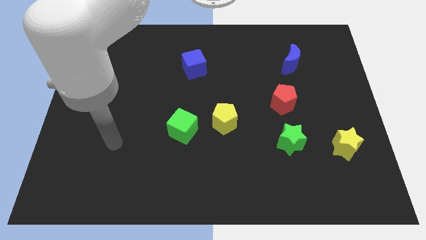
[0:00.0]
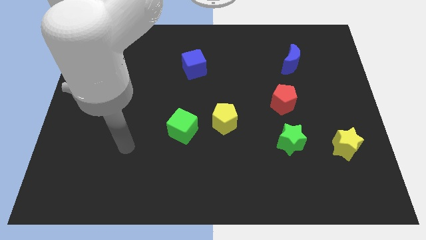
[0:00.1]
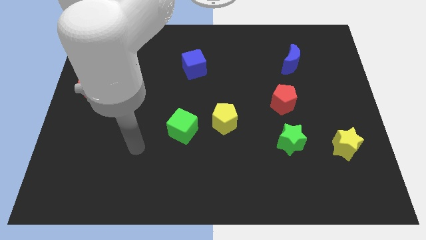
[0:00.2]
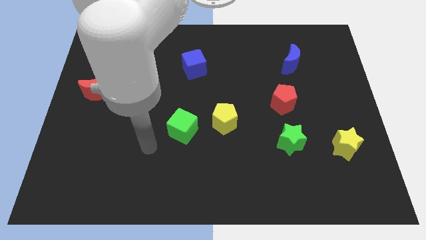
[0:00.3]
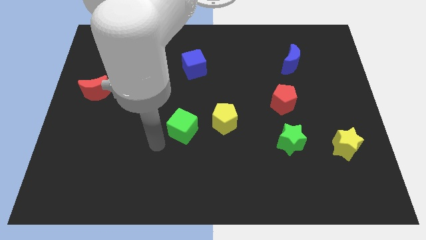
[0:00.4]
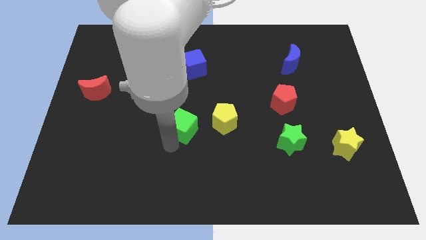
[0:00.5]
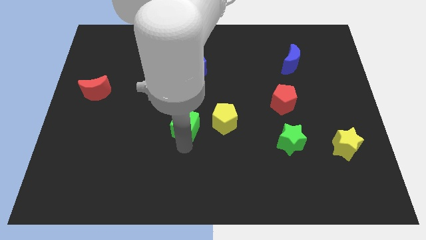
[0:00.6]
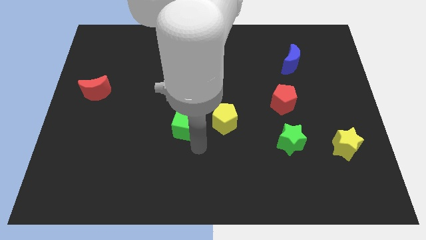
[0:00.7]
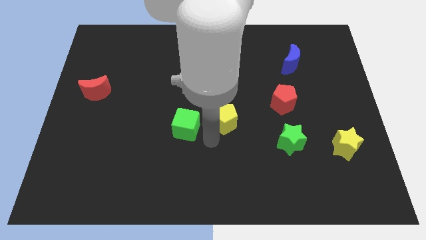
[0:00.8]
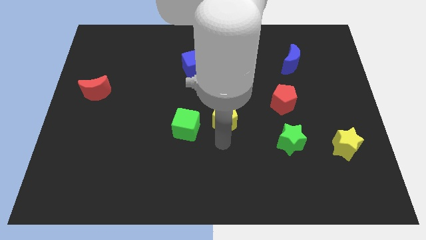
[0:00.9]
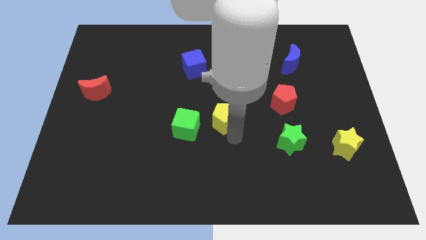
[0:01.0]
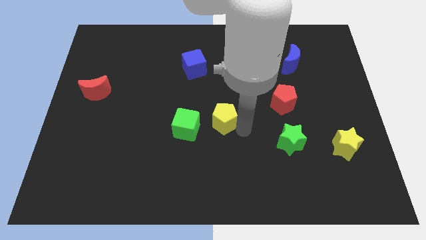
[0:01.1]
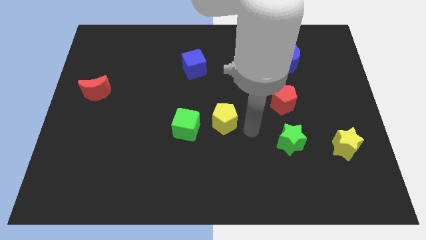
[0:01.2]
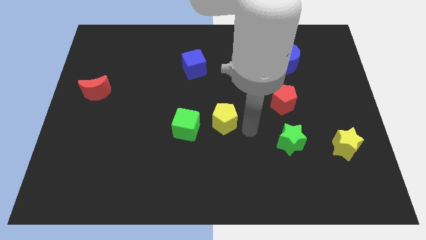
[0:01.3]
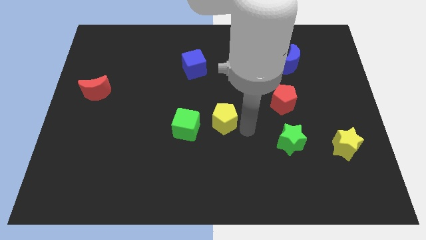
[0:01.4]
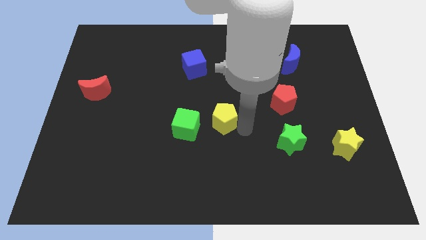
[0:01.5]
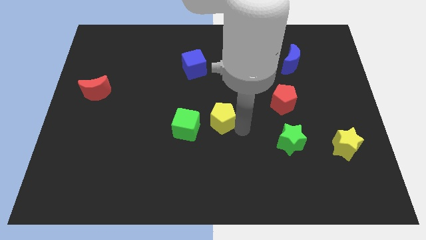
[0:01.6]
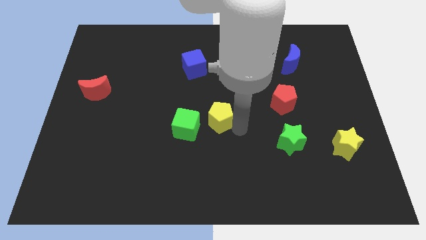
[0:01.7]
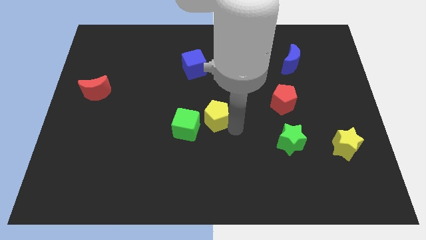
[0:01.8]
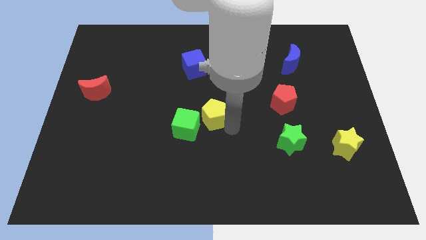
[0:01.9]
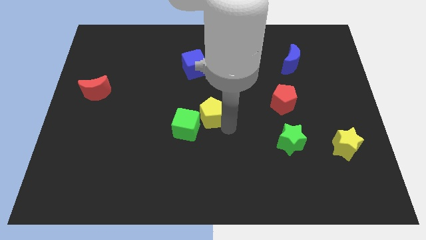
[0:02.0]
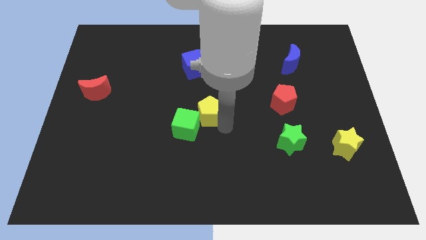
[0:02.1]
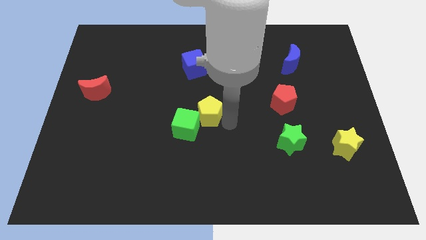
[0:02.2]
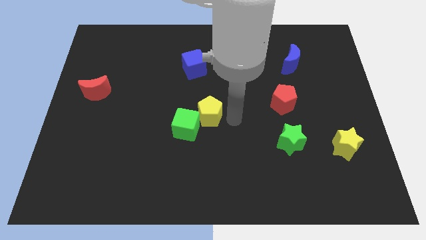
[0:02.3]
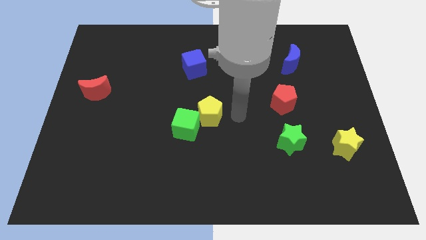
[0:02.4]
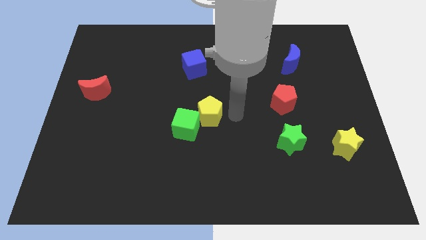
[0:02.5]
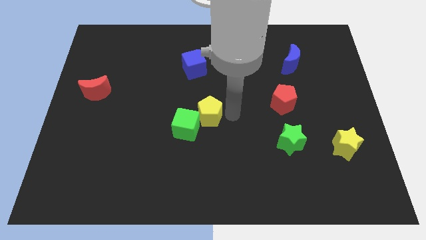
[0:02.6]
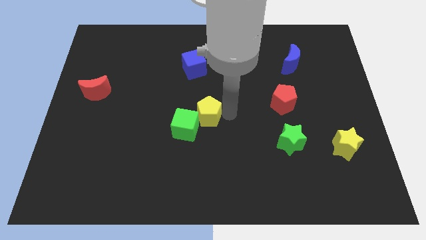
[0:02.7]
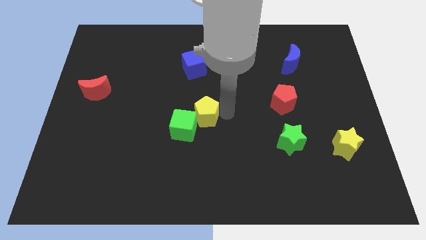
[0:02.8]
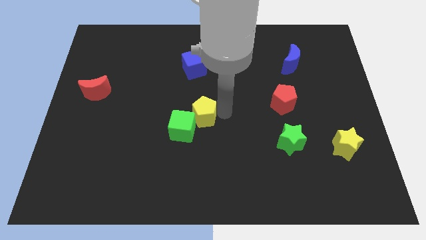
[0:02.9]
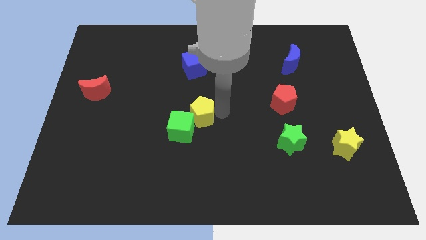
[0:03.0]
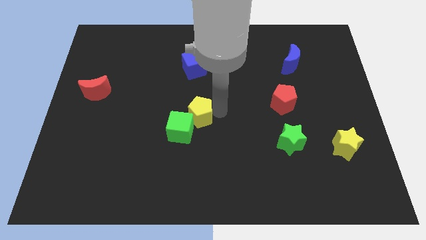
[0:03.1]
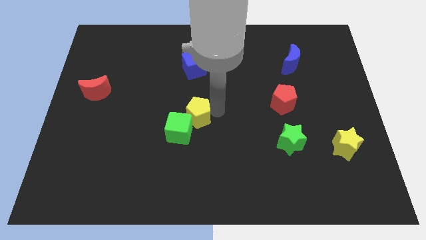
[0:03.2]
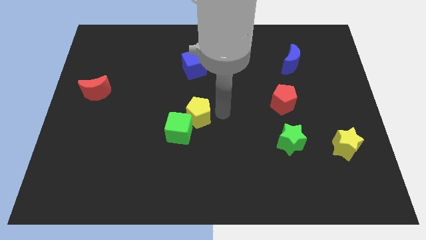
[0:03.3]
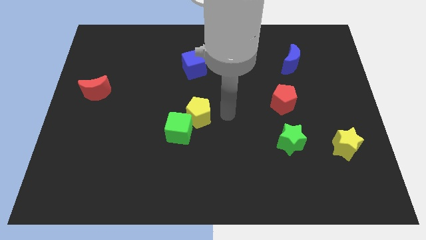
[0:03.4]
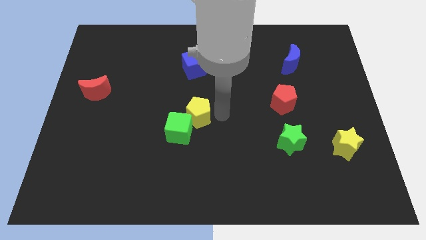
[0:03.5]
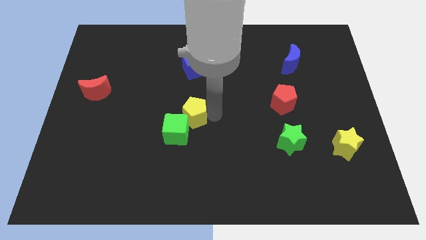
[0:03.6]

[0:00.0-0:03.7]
move the yellow pentagon to the left slightly

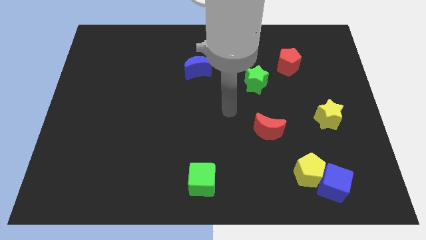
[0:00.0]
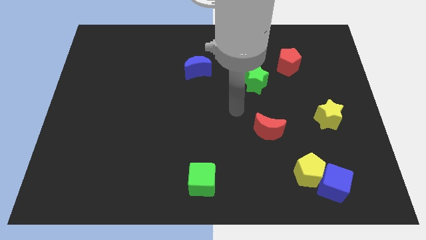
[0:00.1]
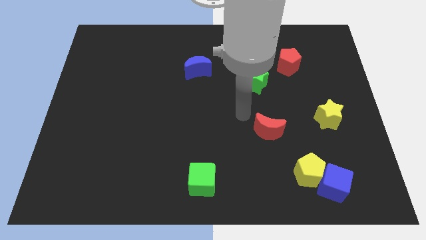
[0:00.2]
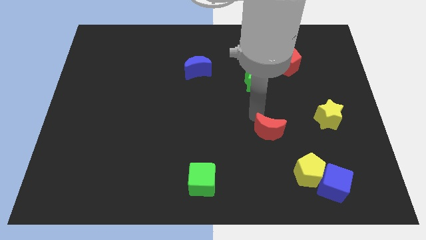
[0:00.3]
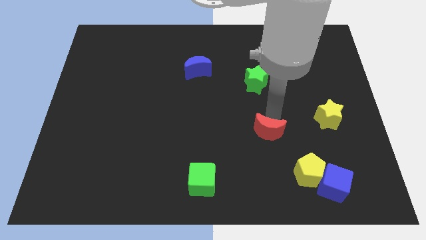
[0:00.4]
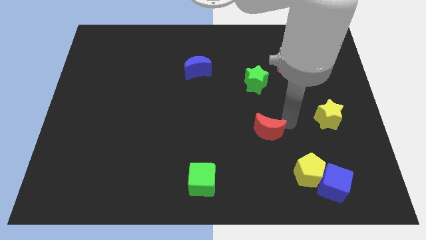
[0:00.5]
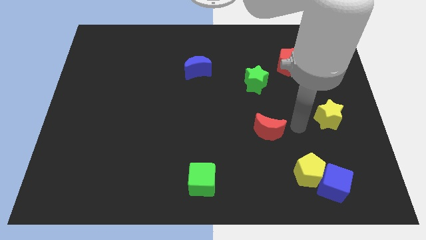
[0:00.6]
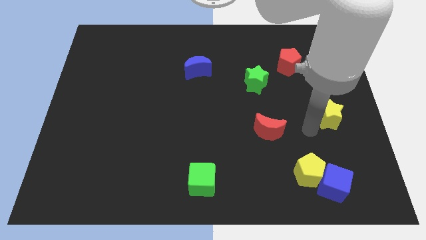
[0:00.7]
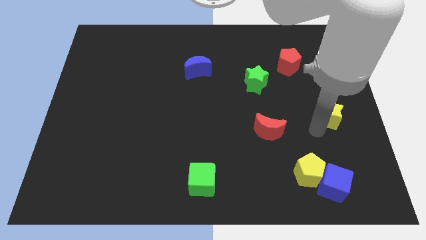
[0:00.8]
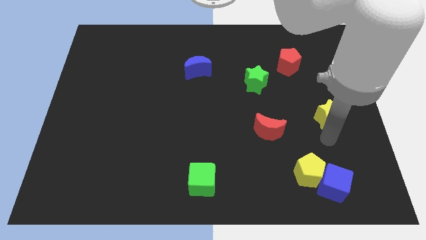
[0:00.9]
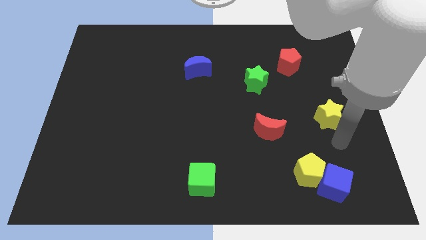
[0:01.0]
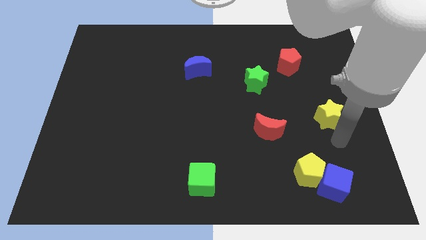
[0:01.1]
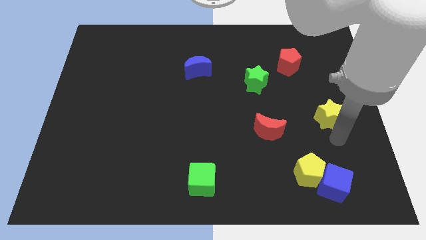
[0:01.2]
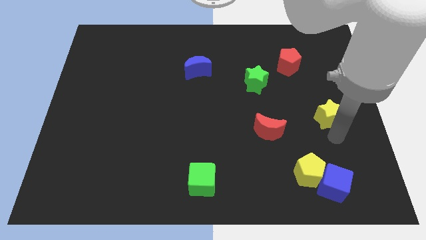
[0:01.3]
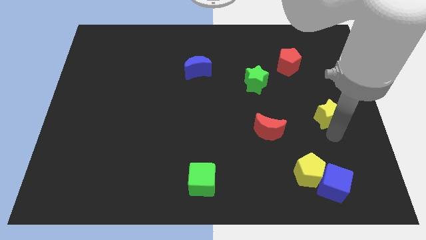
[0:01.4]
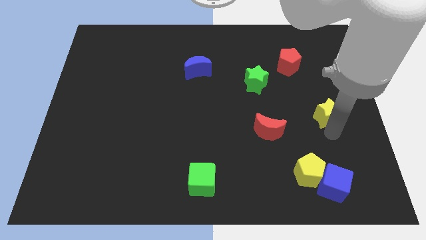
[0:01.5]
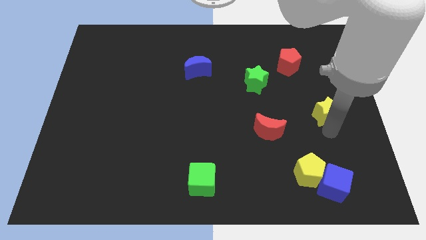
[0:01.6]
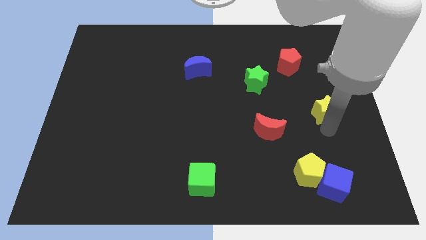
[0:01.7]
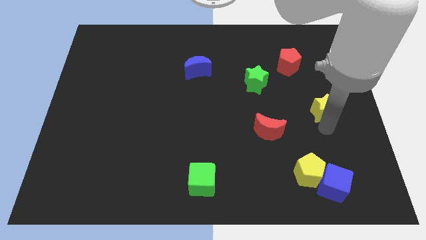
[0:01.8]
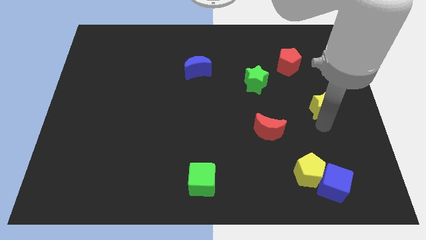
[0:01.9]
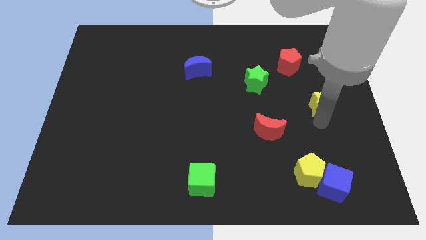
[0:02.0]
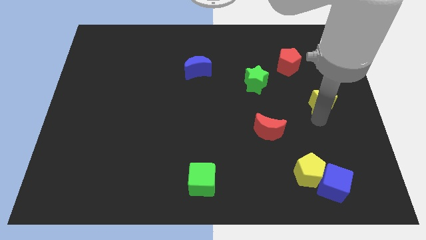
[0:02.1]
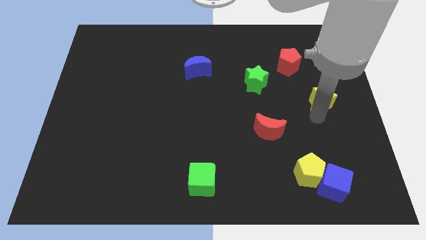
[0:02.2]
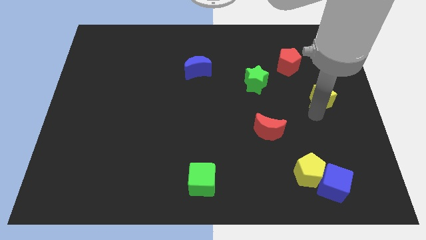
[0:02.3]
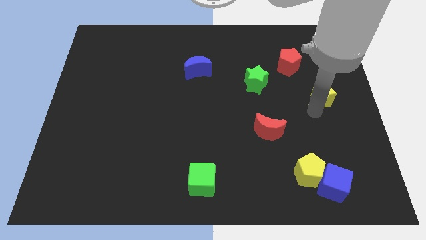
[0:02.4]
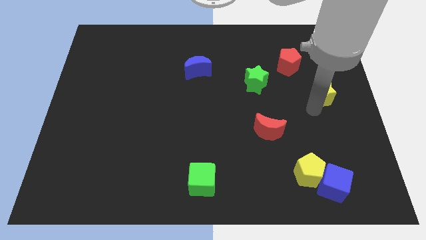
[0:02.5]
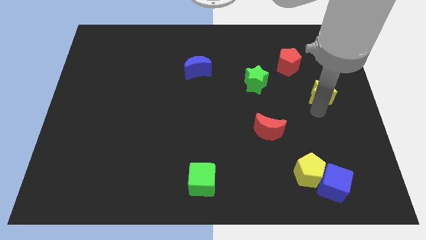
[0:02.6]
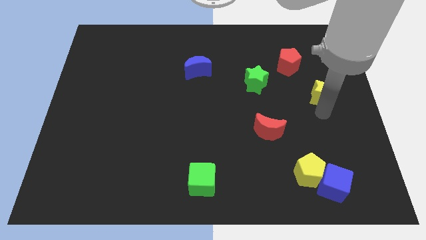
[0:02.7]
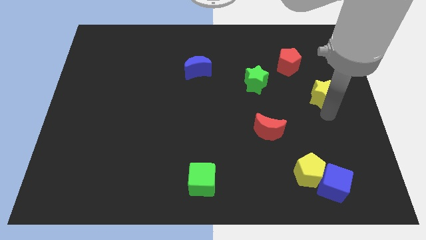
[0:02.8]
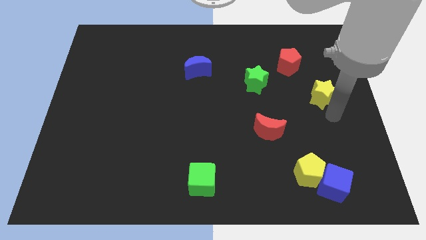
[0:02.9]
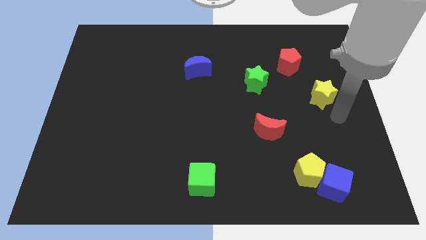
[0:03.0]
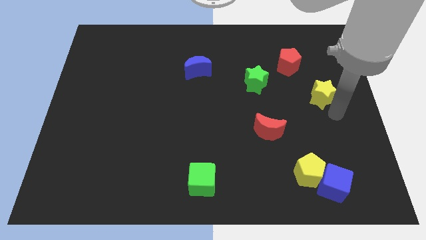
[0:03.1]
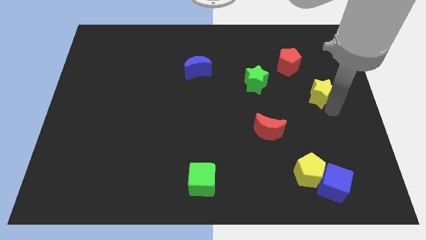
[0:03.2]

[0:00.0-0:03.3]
slide the yellow star a bit upwards

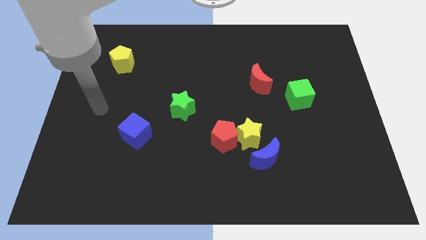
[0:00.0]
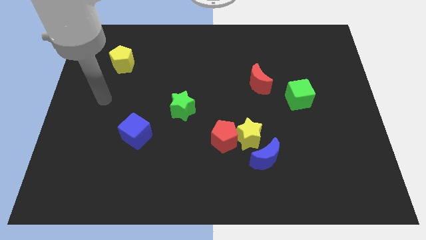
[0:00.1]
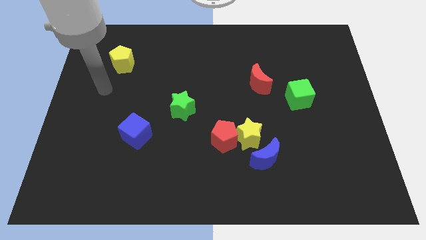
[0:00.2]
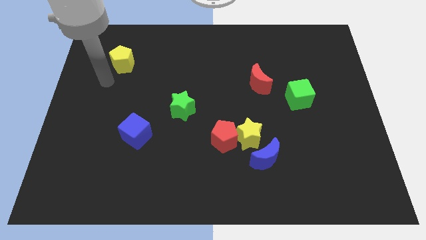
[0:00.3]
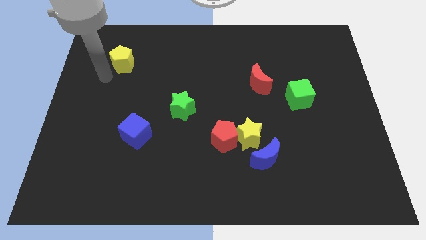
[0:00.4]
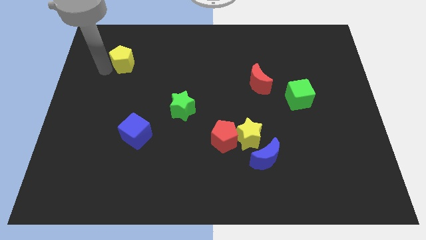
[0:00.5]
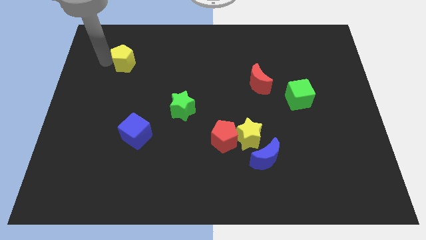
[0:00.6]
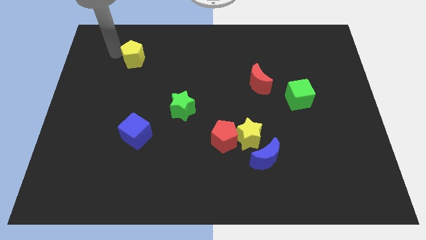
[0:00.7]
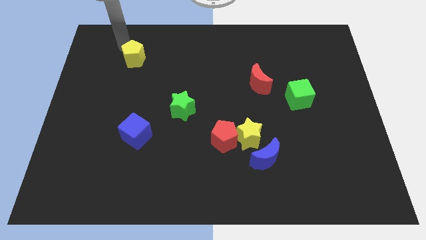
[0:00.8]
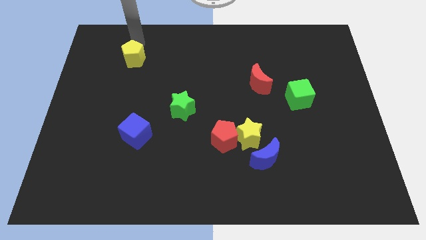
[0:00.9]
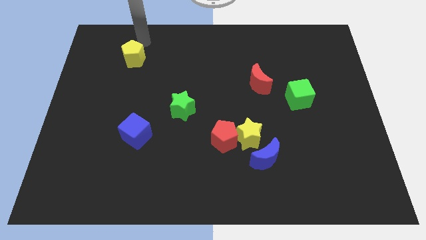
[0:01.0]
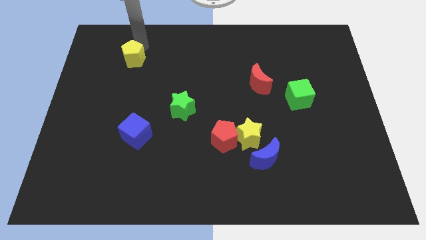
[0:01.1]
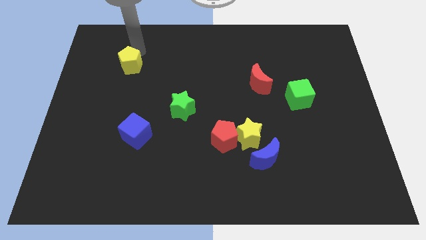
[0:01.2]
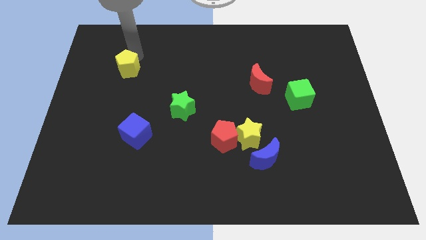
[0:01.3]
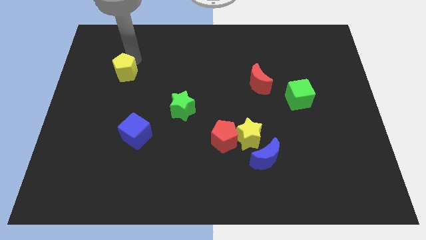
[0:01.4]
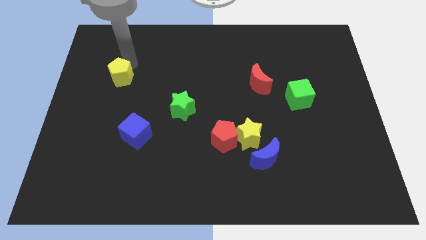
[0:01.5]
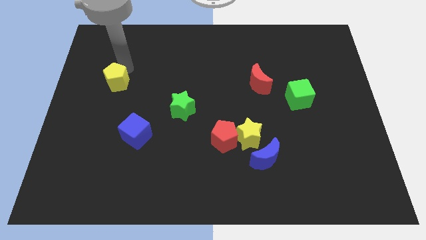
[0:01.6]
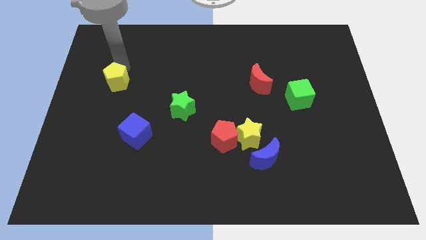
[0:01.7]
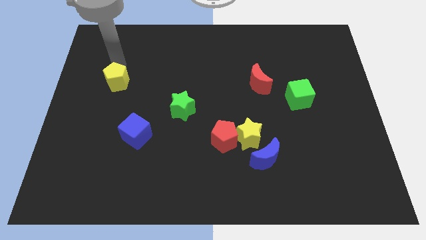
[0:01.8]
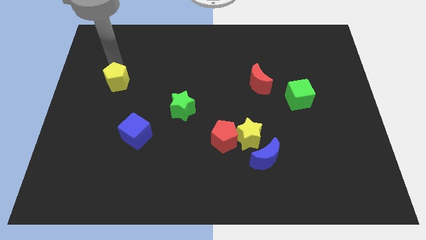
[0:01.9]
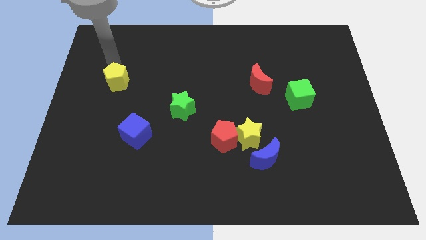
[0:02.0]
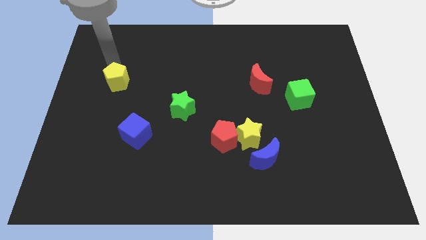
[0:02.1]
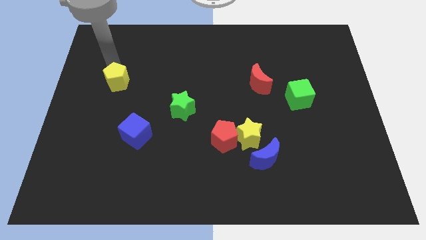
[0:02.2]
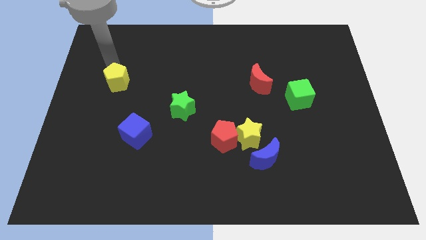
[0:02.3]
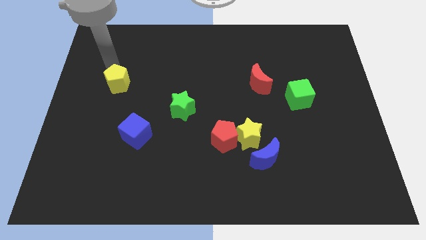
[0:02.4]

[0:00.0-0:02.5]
move the yellow pentagon a little downwards
